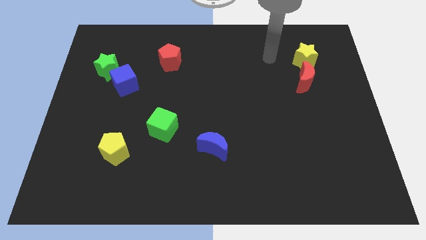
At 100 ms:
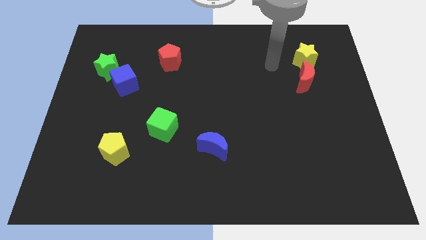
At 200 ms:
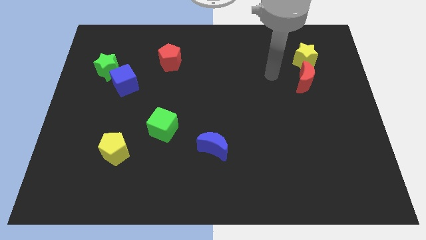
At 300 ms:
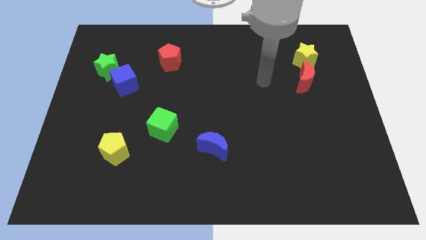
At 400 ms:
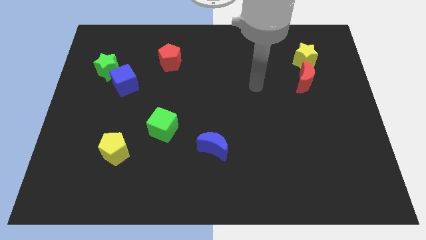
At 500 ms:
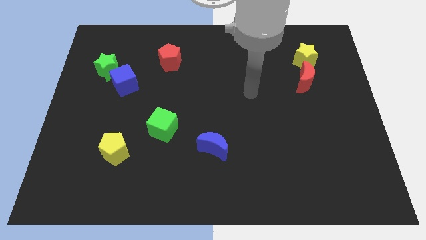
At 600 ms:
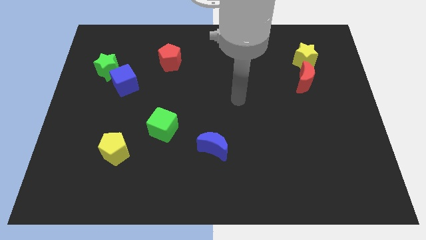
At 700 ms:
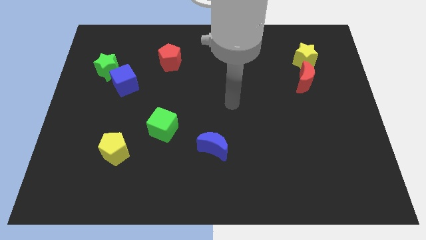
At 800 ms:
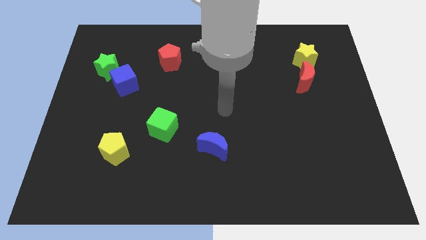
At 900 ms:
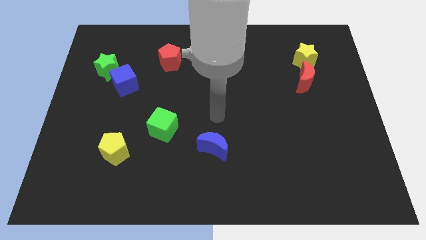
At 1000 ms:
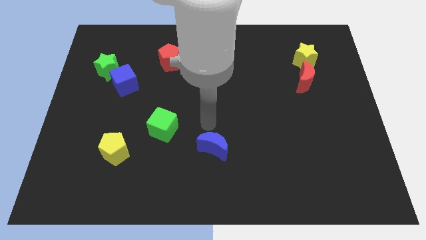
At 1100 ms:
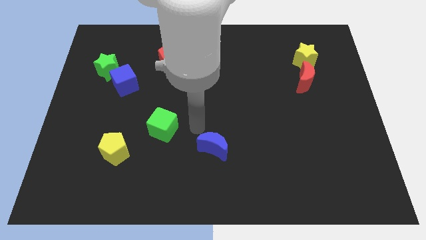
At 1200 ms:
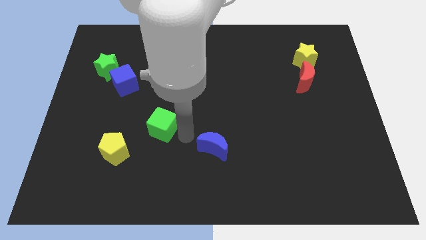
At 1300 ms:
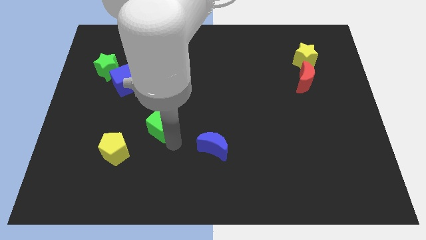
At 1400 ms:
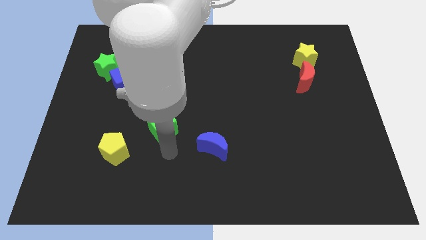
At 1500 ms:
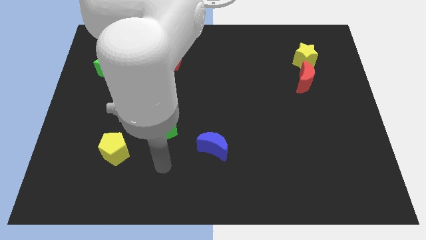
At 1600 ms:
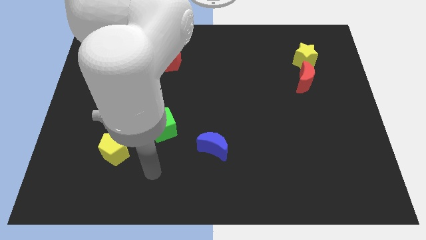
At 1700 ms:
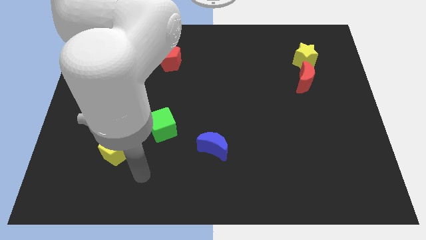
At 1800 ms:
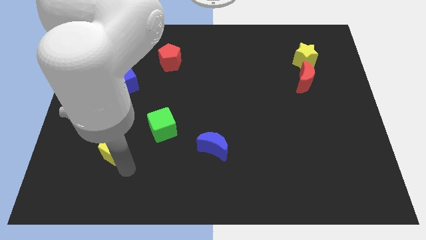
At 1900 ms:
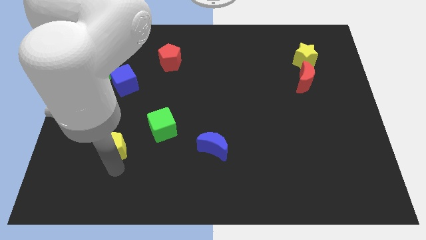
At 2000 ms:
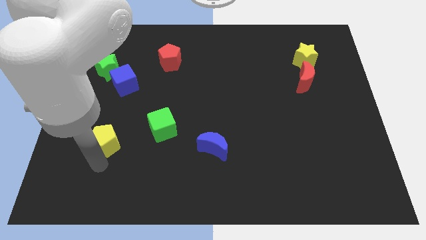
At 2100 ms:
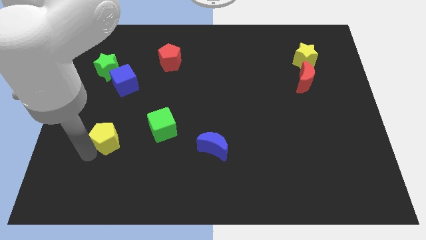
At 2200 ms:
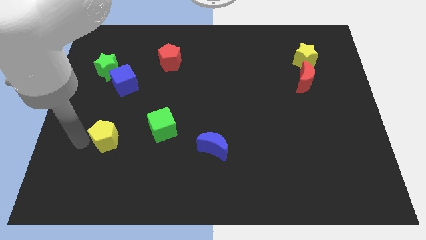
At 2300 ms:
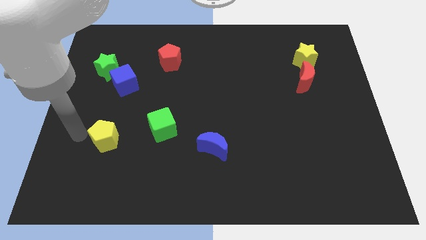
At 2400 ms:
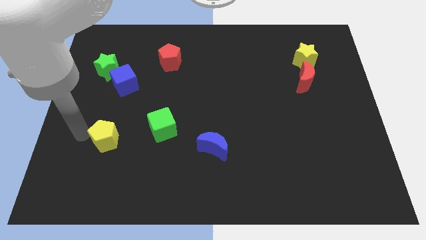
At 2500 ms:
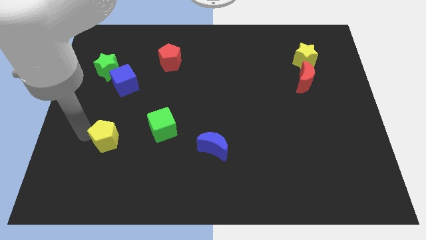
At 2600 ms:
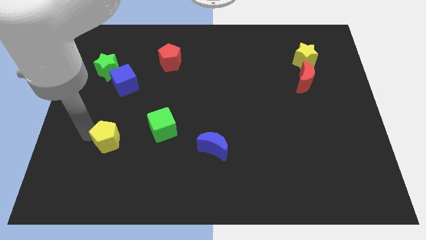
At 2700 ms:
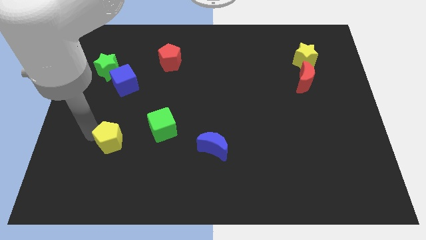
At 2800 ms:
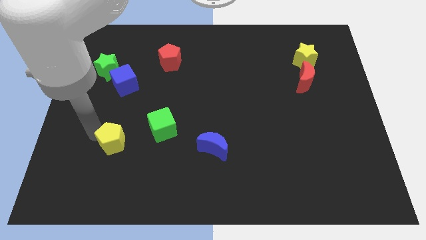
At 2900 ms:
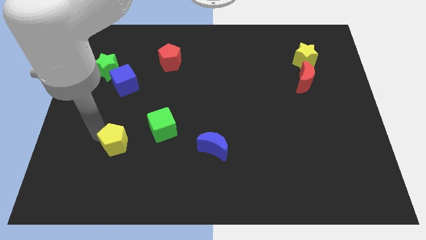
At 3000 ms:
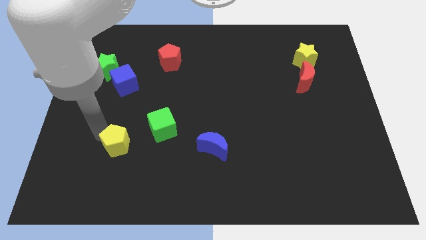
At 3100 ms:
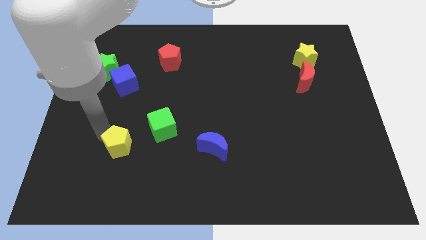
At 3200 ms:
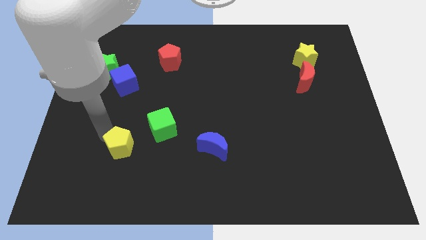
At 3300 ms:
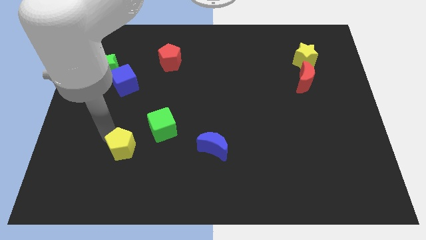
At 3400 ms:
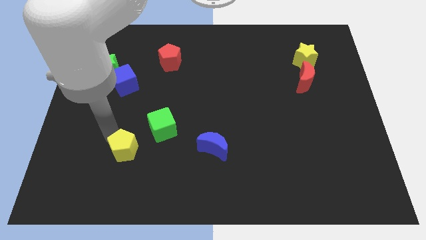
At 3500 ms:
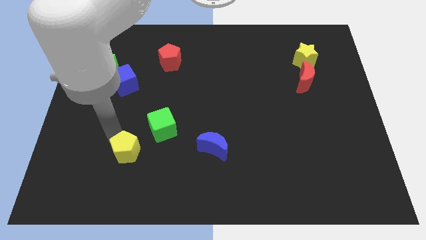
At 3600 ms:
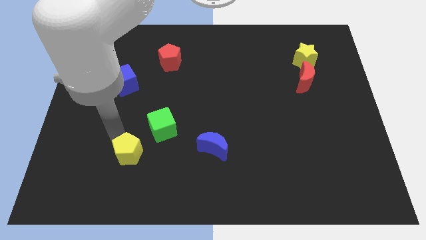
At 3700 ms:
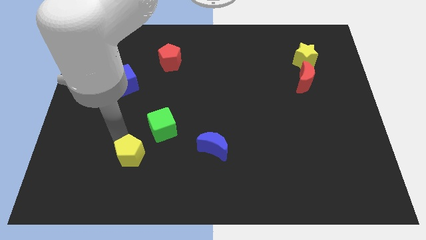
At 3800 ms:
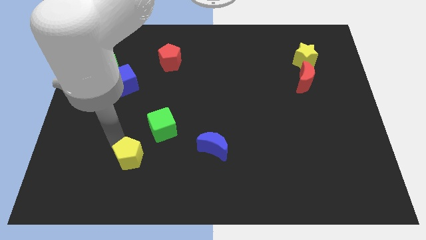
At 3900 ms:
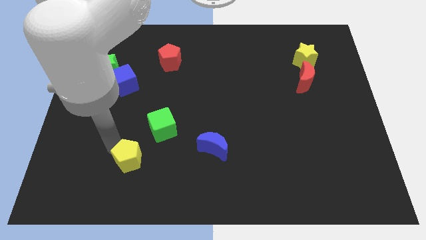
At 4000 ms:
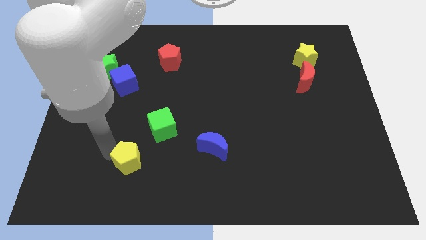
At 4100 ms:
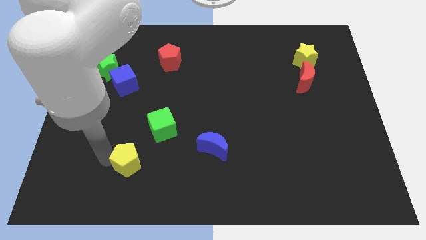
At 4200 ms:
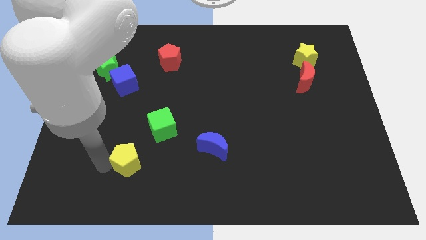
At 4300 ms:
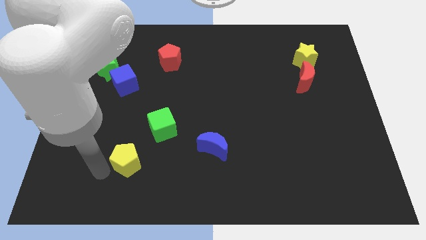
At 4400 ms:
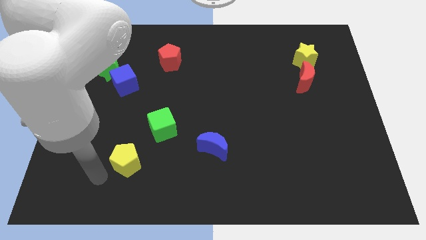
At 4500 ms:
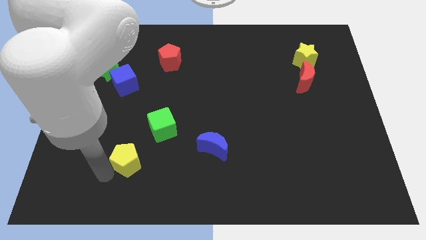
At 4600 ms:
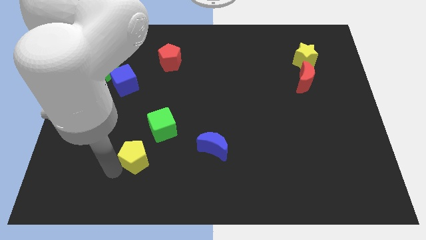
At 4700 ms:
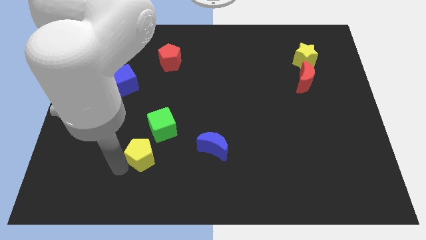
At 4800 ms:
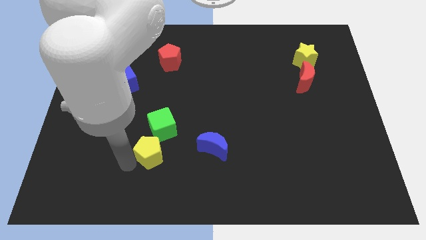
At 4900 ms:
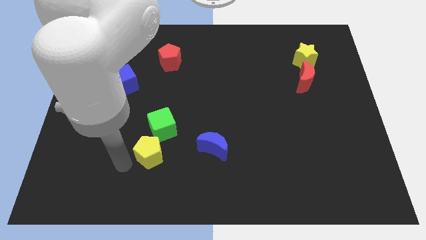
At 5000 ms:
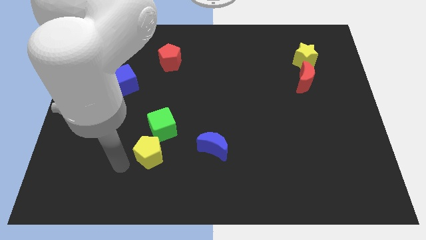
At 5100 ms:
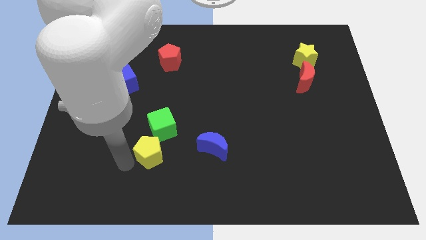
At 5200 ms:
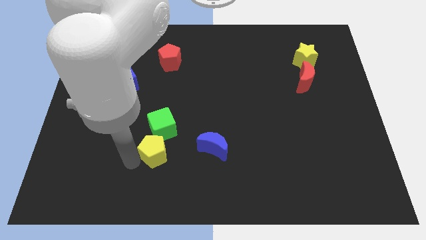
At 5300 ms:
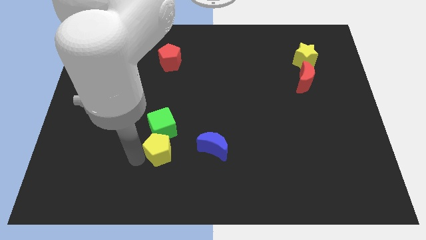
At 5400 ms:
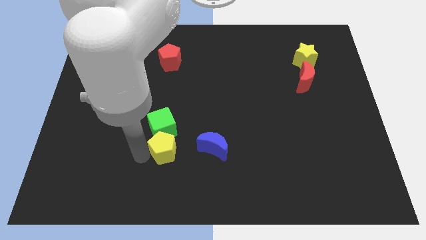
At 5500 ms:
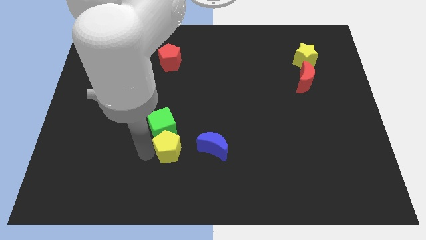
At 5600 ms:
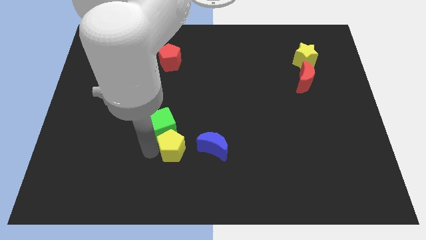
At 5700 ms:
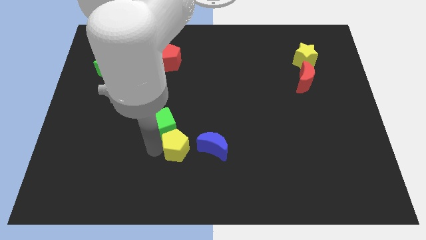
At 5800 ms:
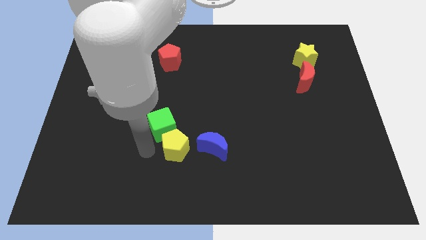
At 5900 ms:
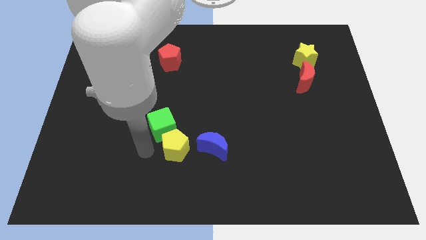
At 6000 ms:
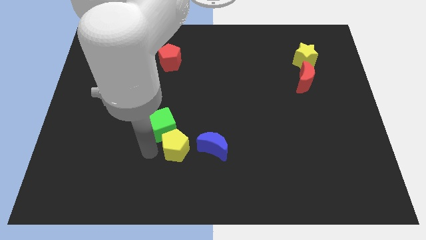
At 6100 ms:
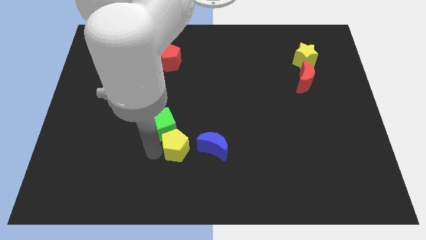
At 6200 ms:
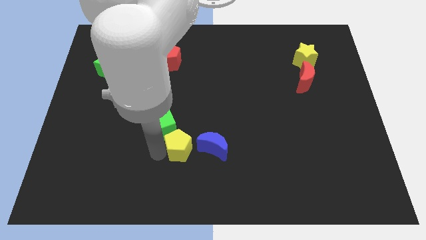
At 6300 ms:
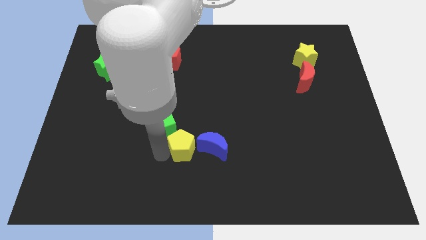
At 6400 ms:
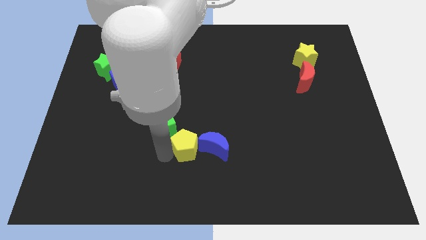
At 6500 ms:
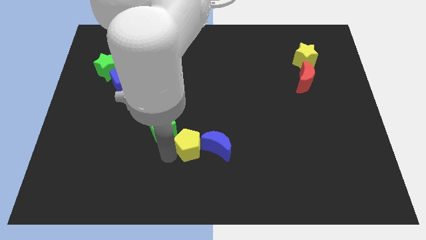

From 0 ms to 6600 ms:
put the yellow pentagon close to the blue moon
